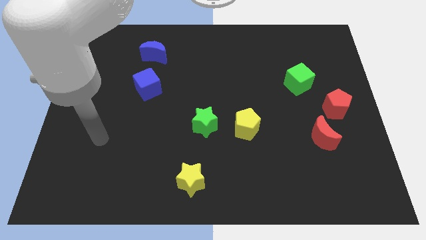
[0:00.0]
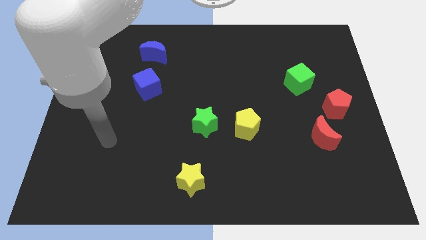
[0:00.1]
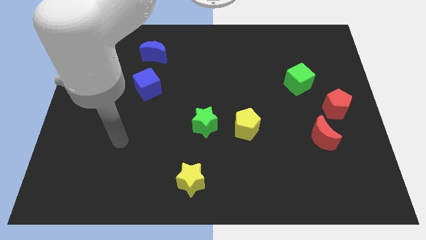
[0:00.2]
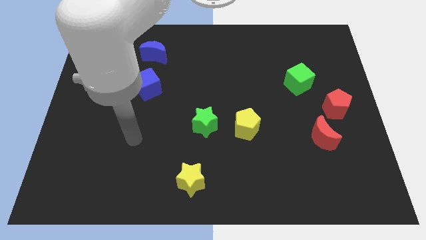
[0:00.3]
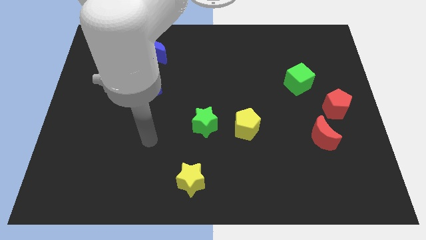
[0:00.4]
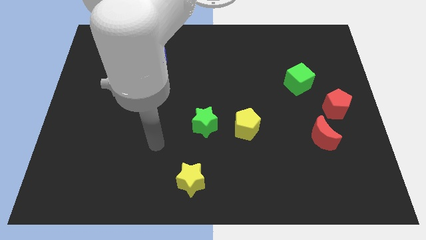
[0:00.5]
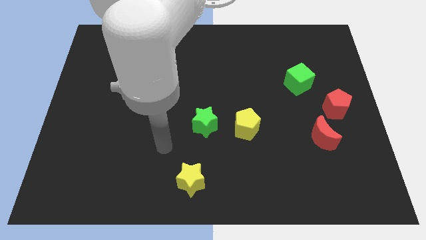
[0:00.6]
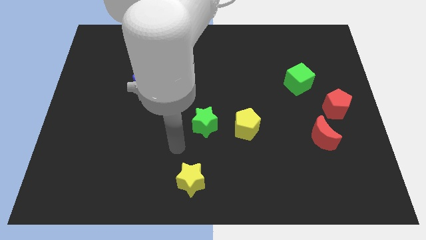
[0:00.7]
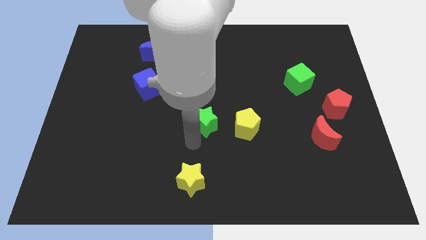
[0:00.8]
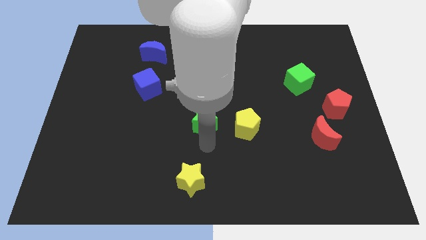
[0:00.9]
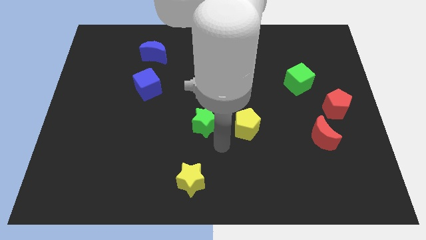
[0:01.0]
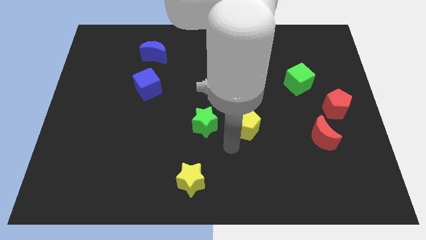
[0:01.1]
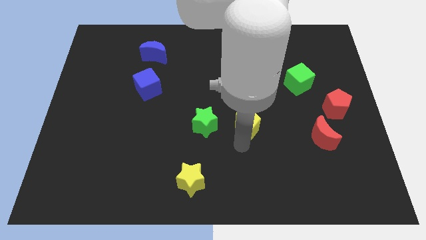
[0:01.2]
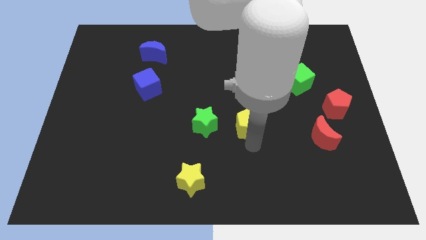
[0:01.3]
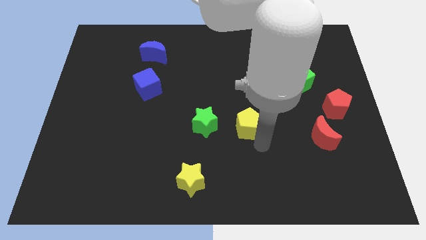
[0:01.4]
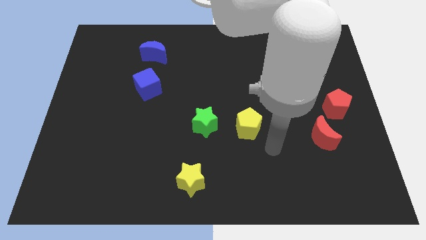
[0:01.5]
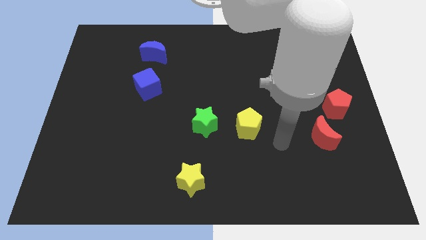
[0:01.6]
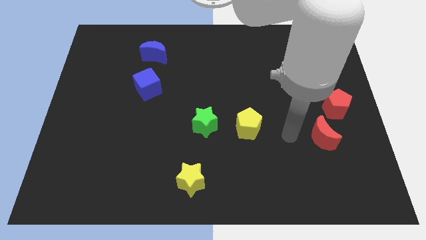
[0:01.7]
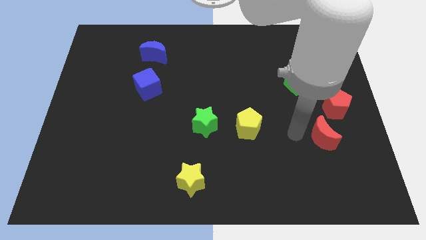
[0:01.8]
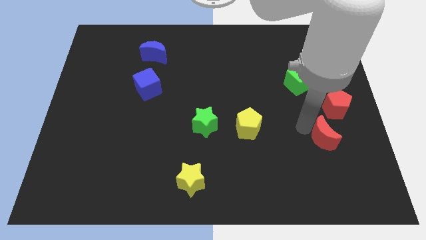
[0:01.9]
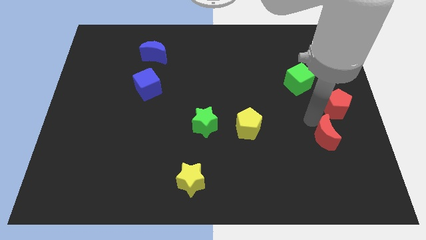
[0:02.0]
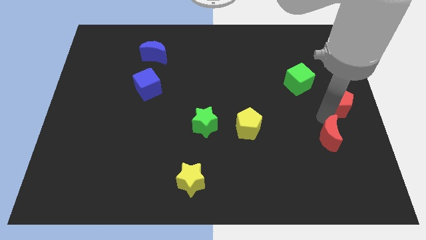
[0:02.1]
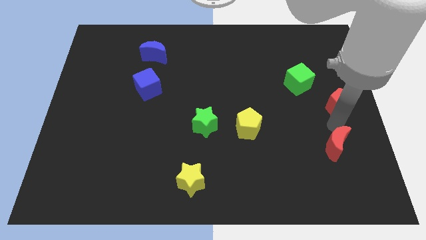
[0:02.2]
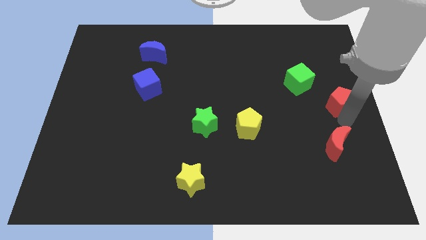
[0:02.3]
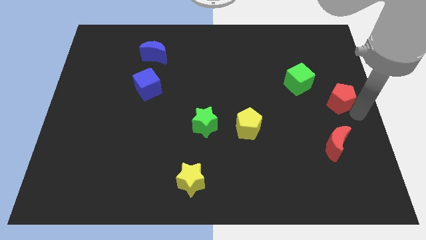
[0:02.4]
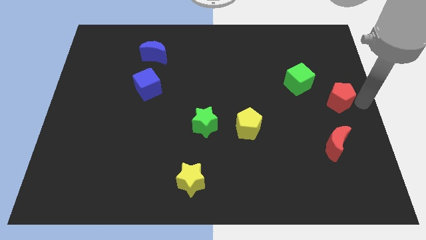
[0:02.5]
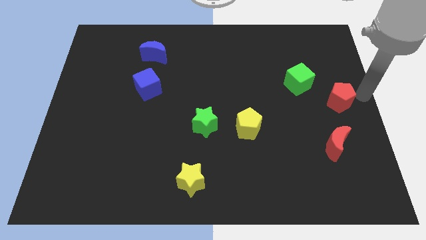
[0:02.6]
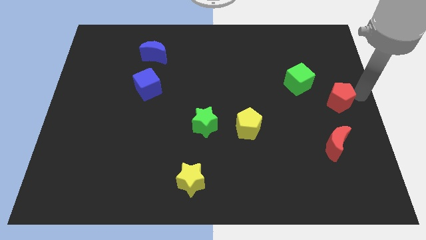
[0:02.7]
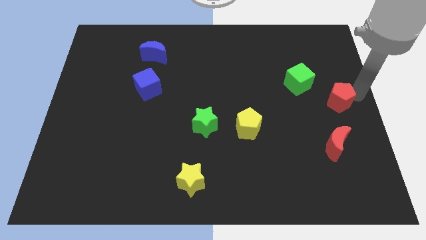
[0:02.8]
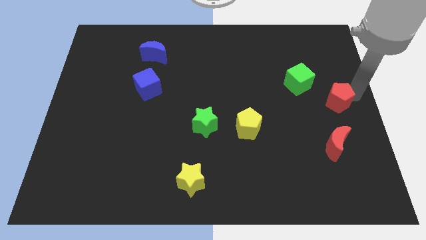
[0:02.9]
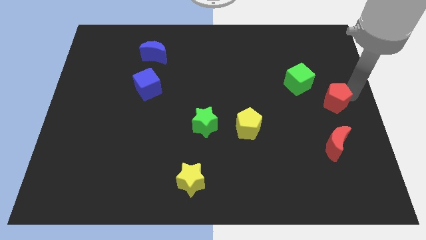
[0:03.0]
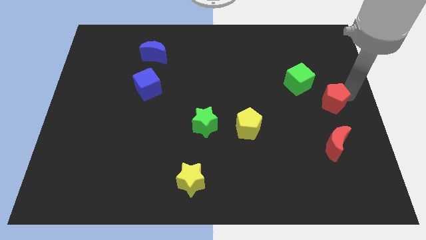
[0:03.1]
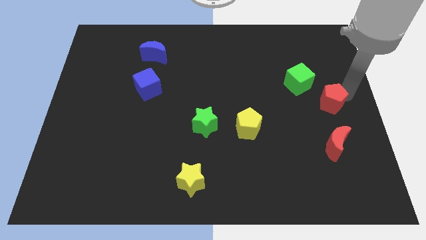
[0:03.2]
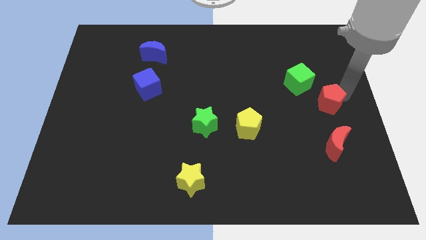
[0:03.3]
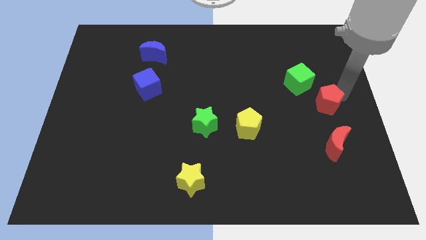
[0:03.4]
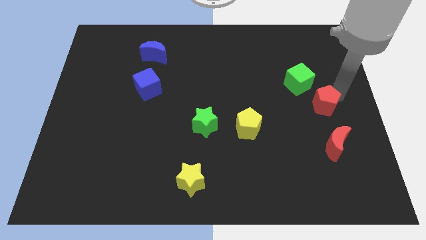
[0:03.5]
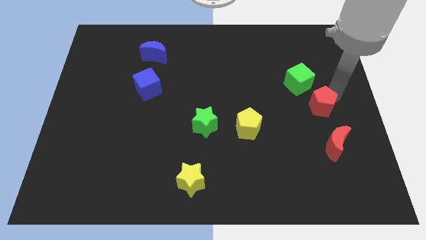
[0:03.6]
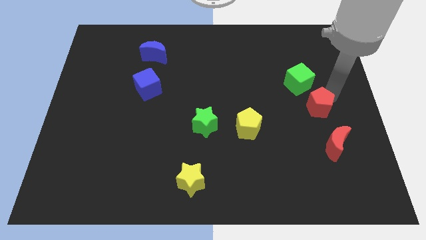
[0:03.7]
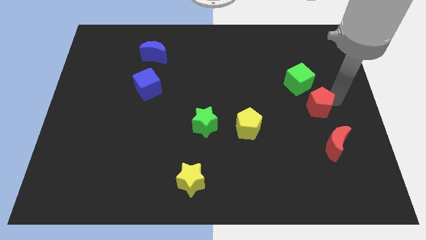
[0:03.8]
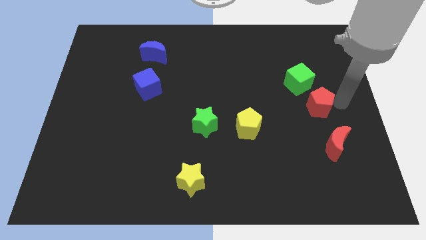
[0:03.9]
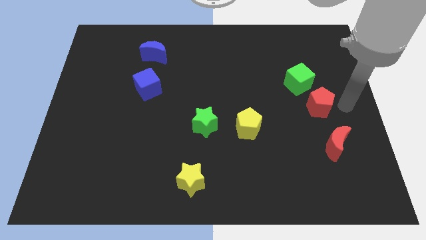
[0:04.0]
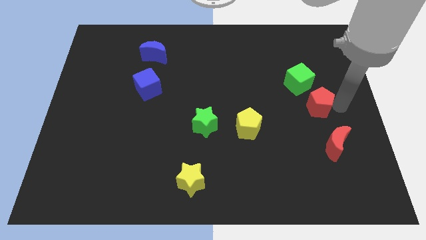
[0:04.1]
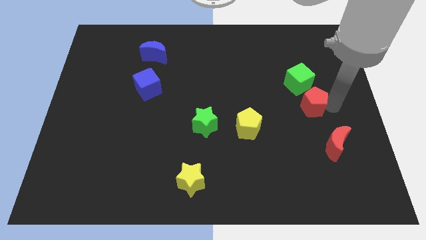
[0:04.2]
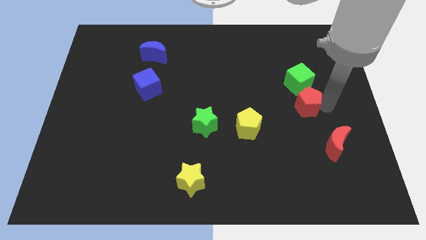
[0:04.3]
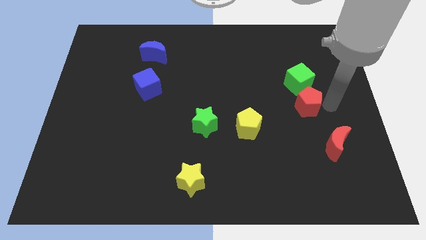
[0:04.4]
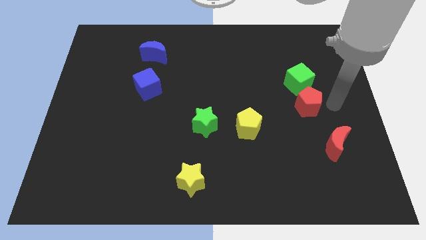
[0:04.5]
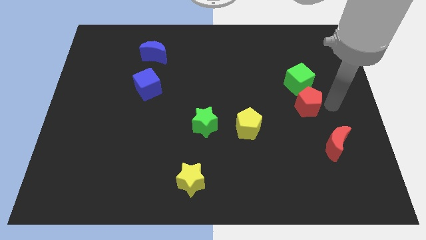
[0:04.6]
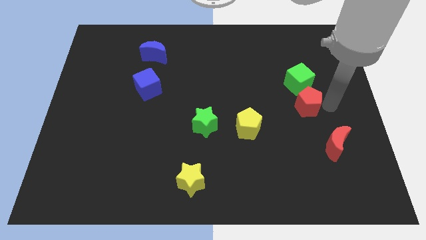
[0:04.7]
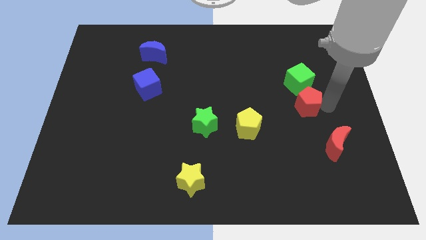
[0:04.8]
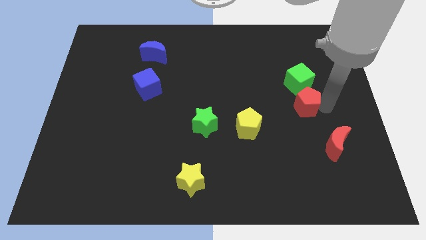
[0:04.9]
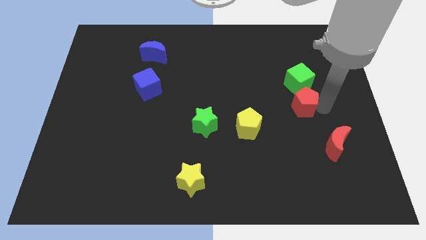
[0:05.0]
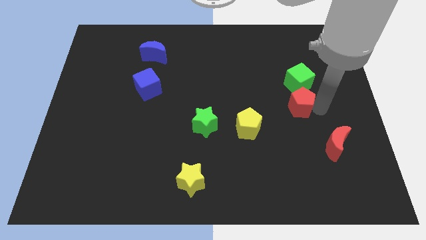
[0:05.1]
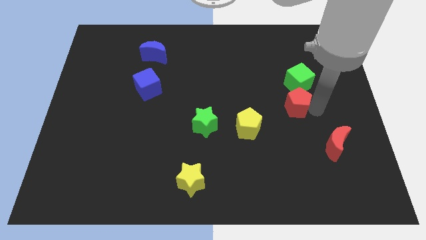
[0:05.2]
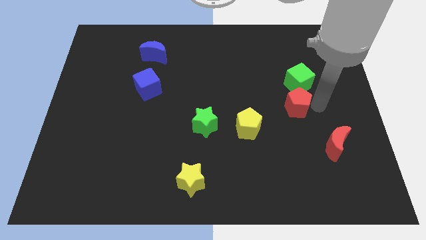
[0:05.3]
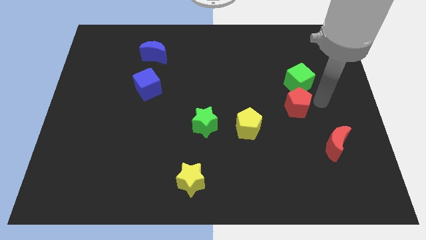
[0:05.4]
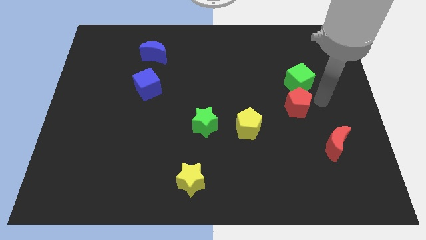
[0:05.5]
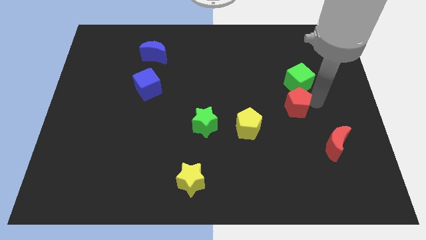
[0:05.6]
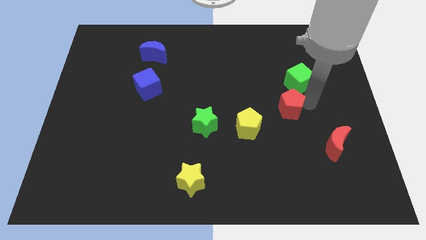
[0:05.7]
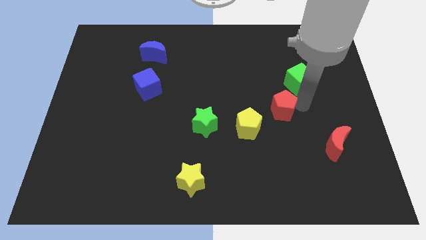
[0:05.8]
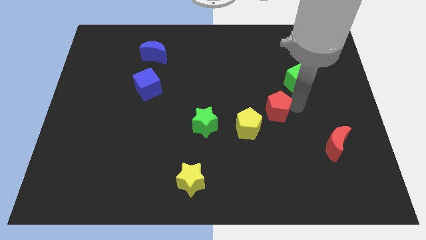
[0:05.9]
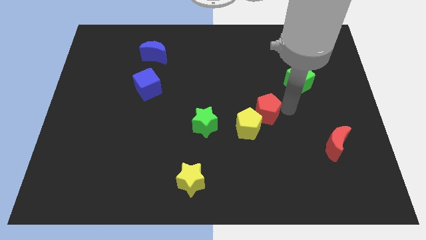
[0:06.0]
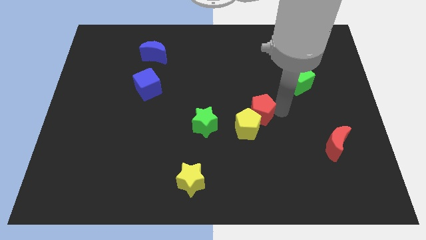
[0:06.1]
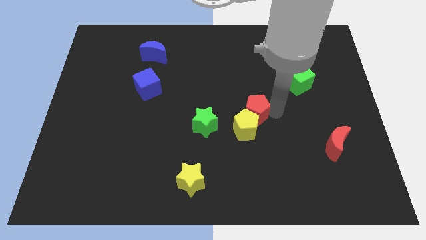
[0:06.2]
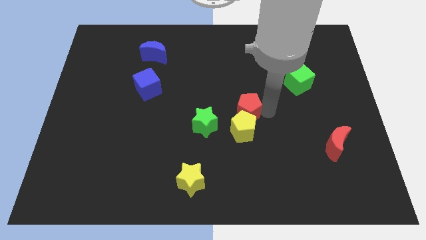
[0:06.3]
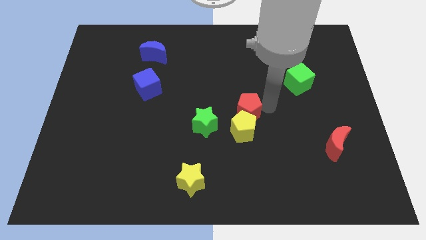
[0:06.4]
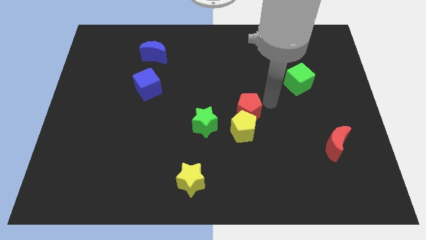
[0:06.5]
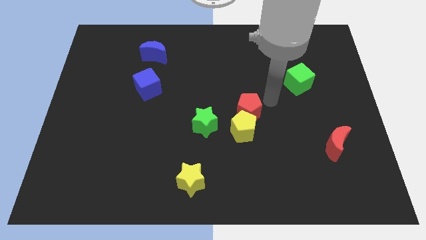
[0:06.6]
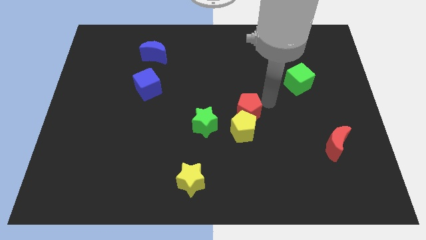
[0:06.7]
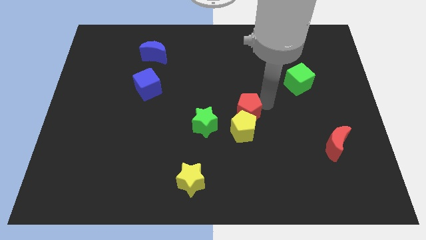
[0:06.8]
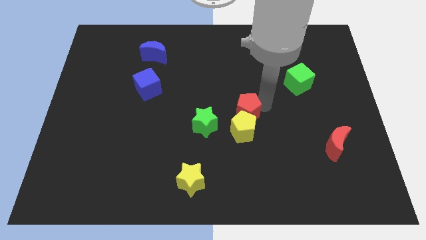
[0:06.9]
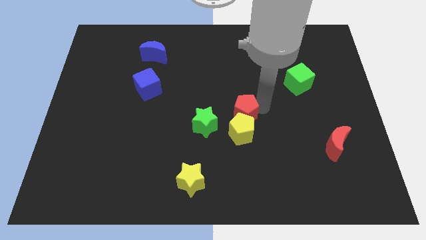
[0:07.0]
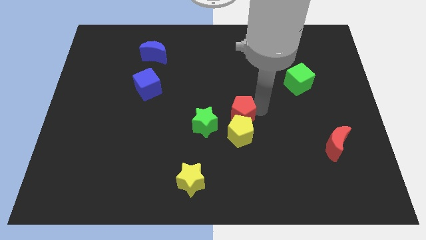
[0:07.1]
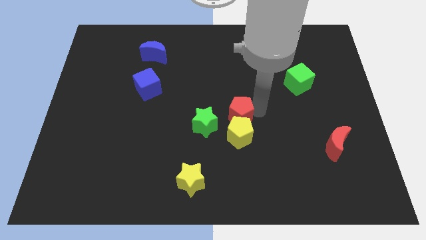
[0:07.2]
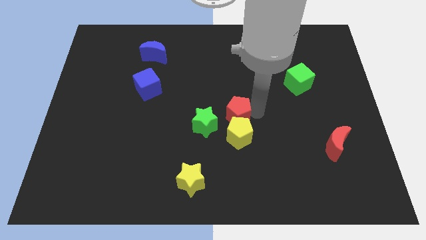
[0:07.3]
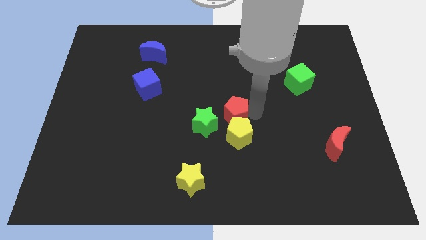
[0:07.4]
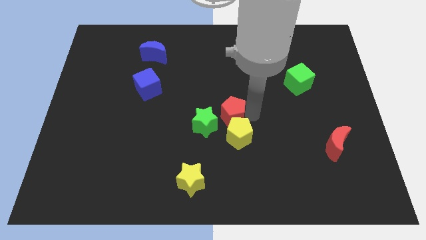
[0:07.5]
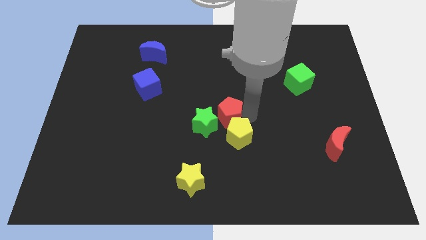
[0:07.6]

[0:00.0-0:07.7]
slide the red pentagon next to the green star
